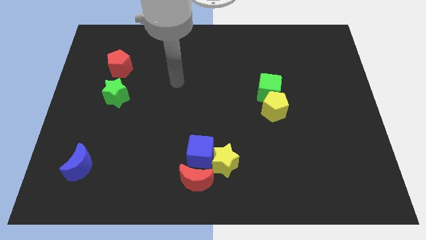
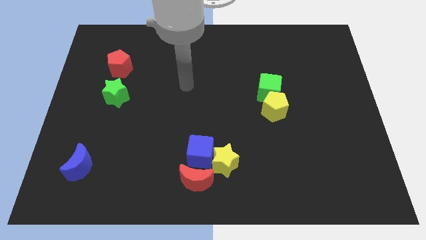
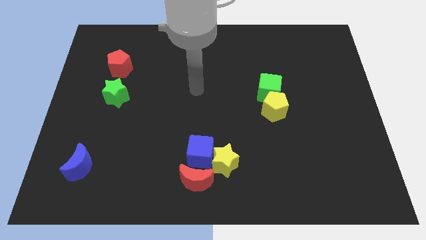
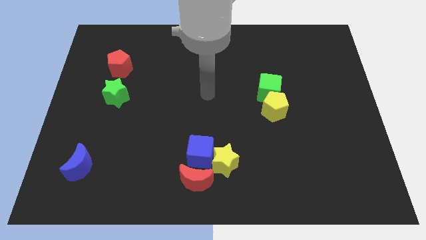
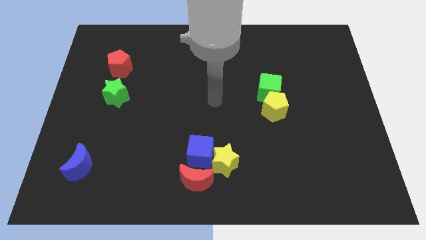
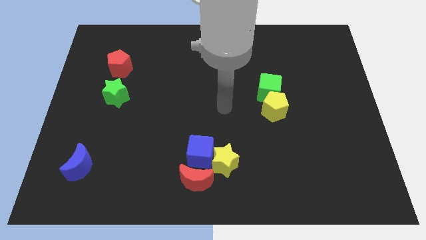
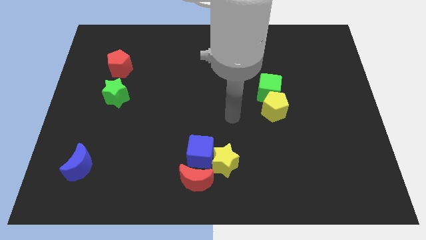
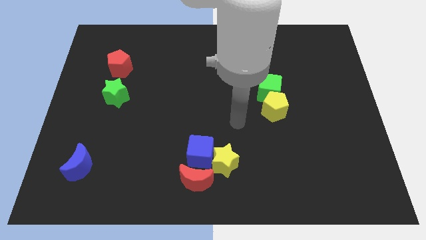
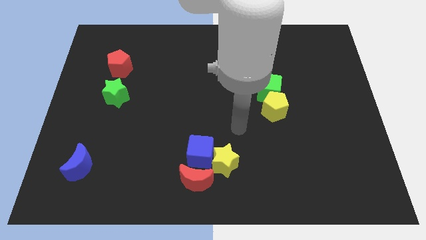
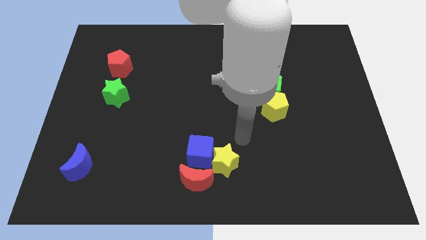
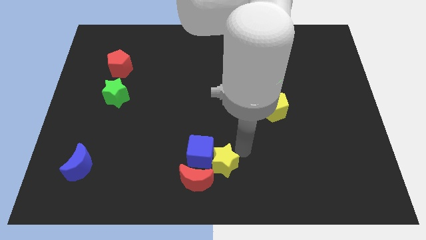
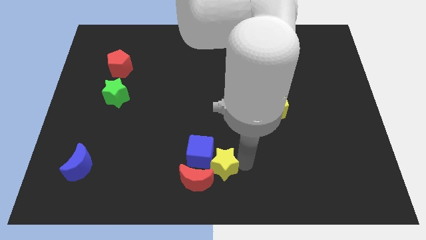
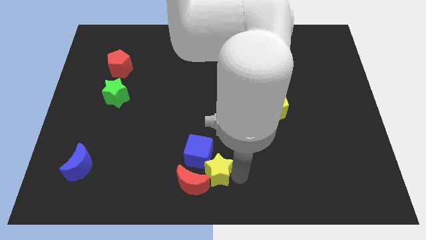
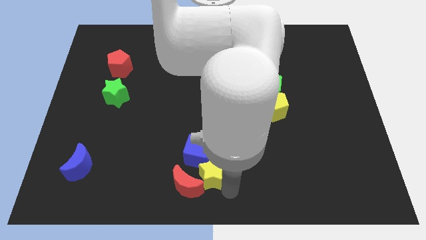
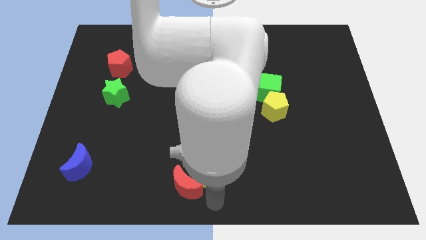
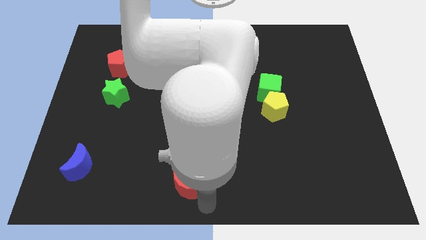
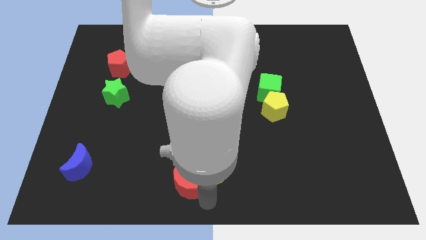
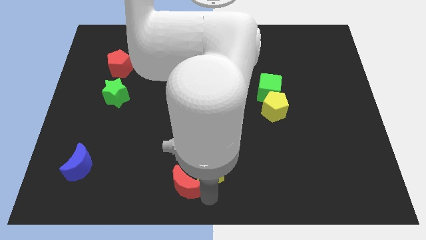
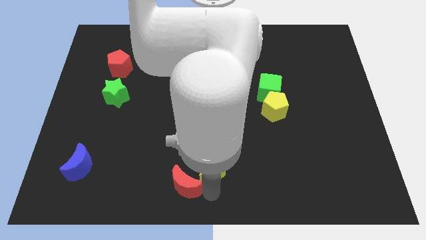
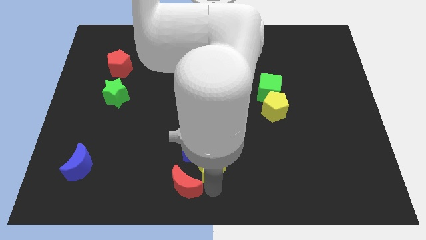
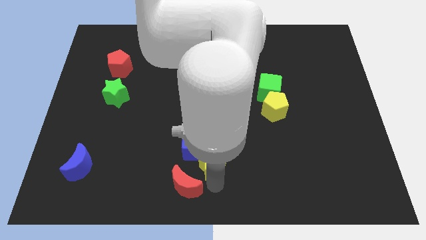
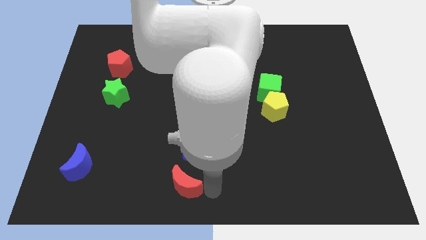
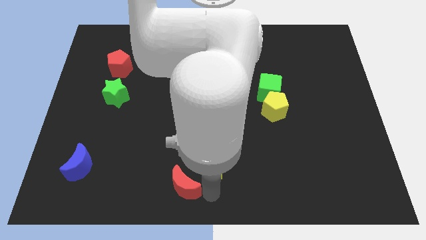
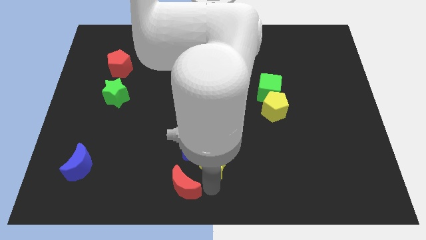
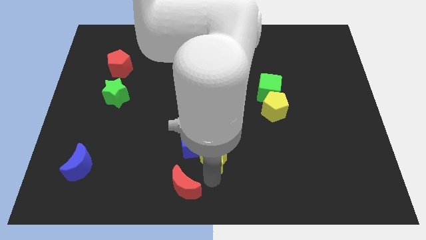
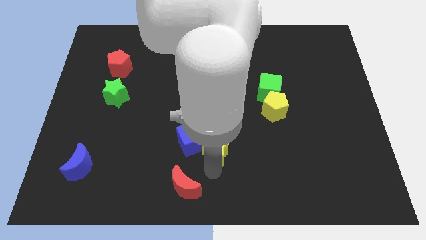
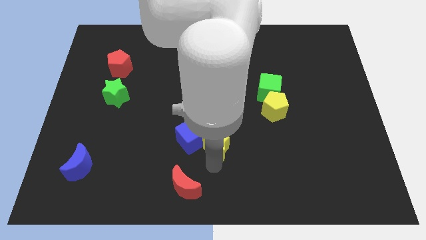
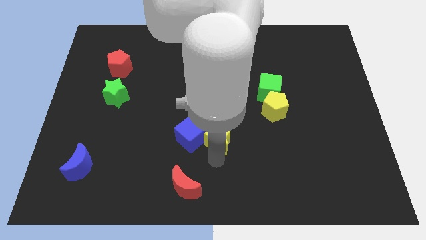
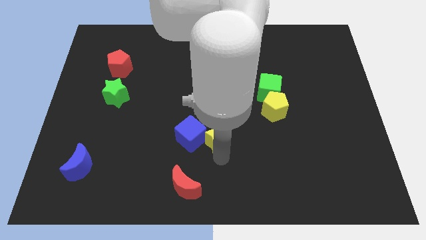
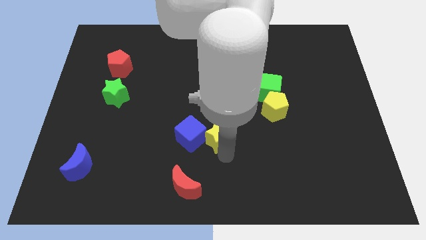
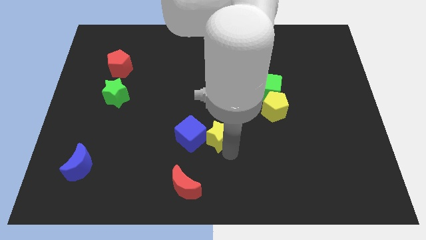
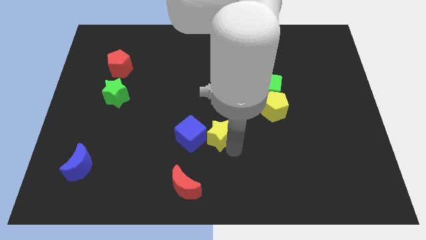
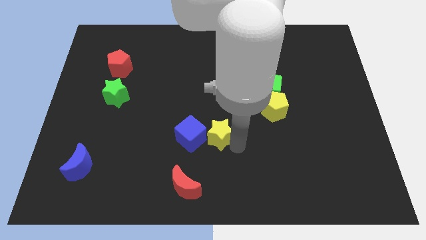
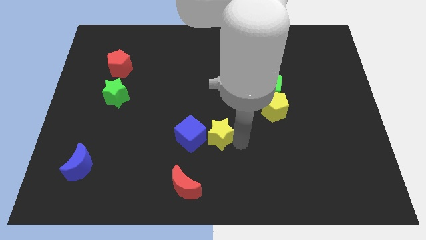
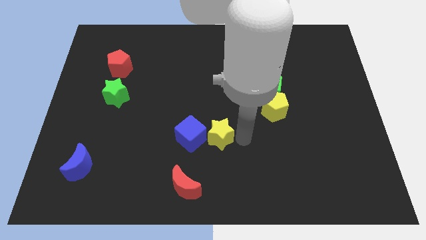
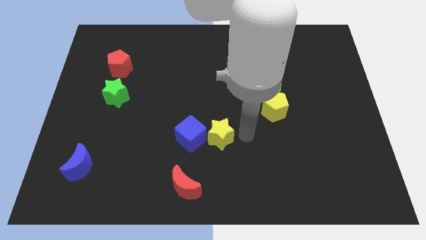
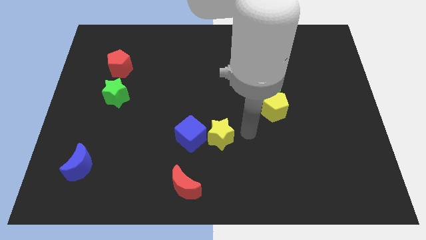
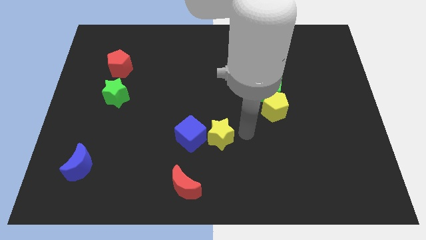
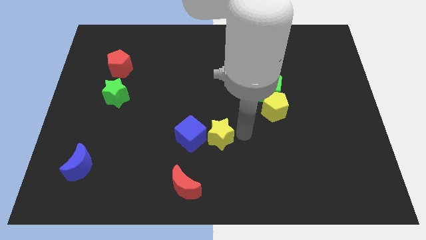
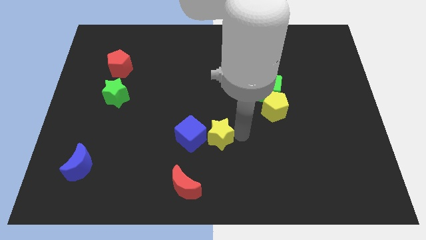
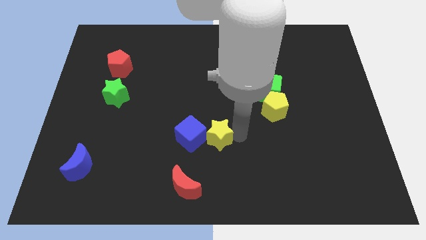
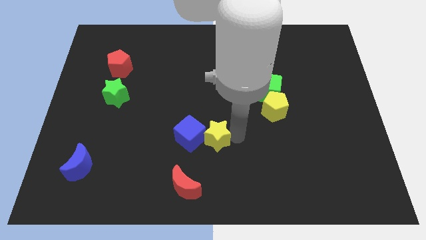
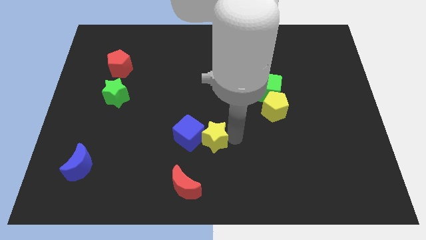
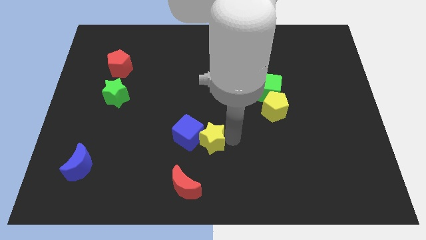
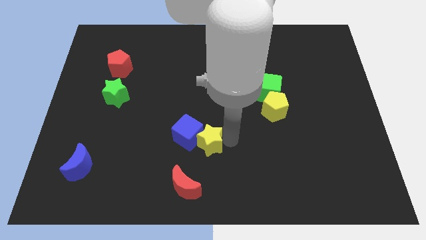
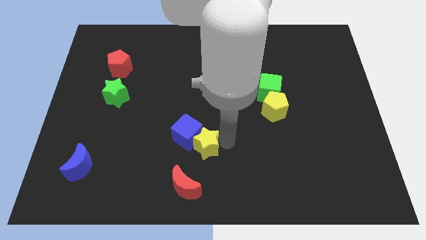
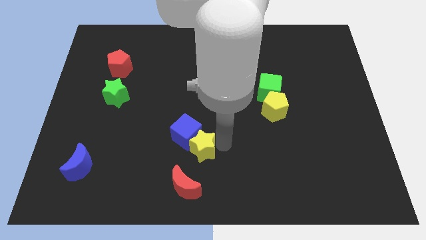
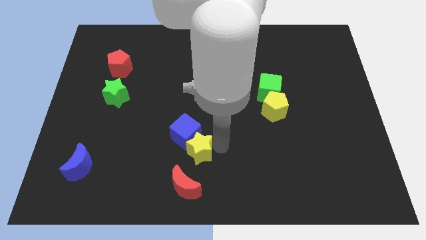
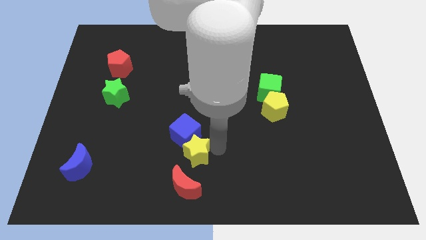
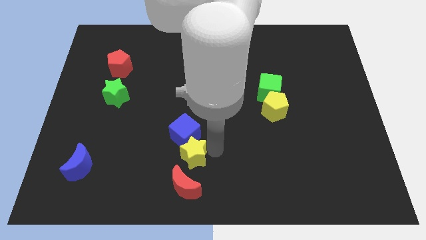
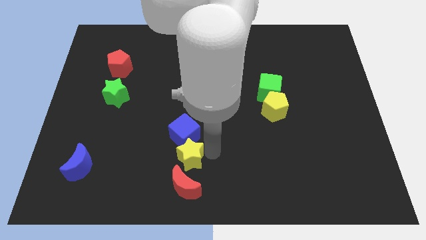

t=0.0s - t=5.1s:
move the yellow star slightly to the left

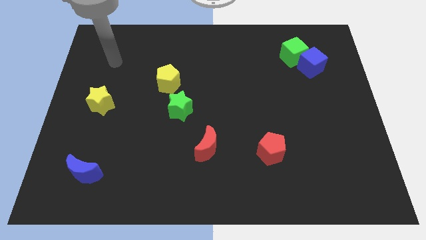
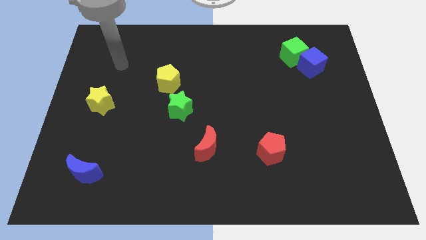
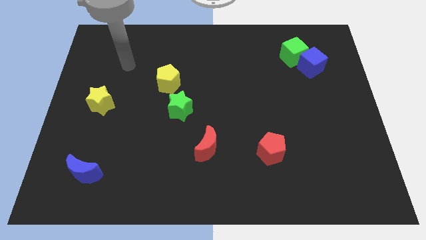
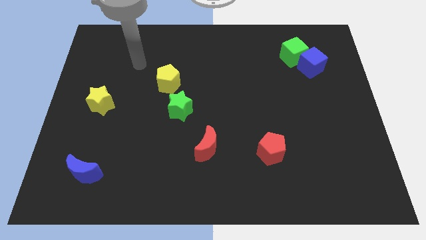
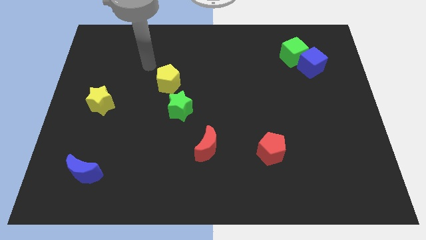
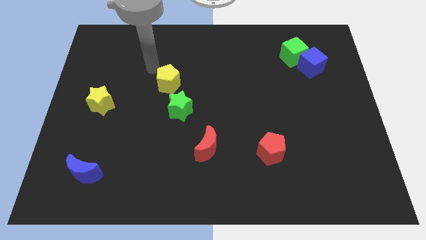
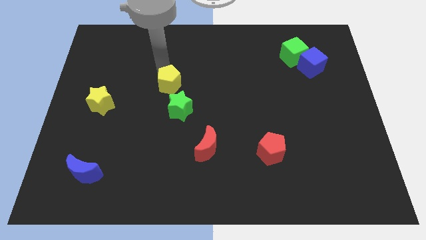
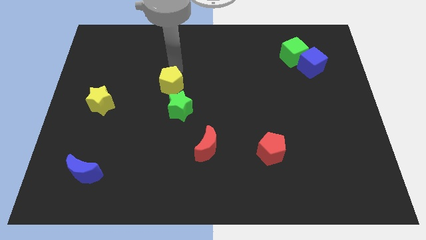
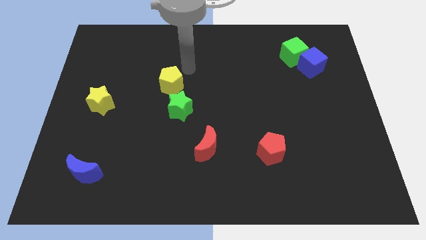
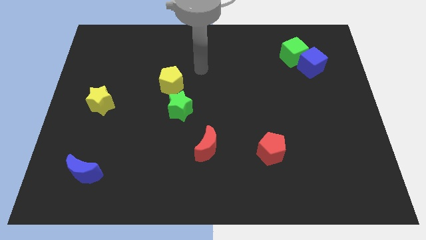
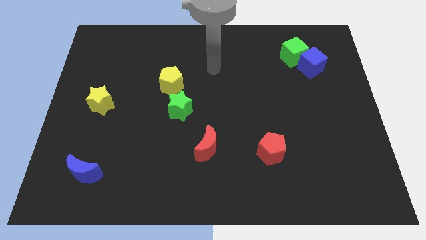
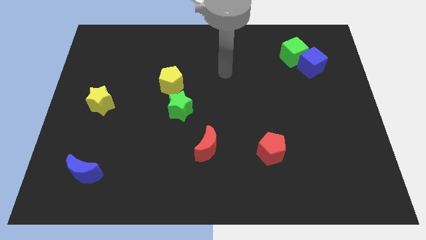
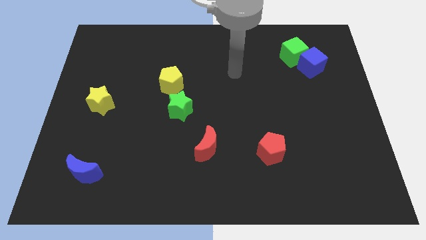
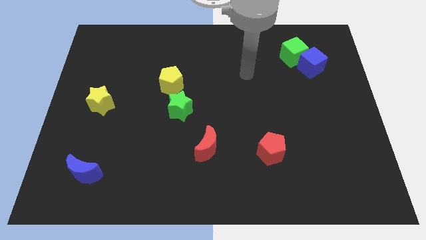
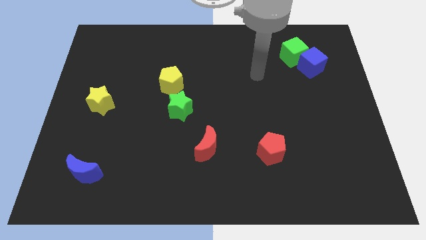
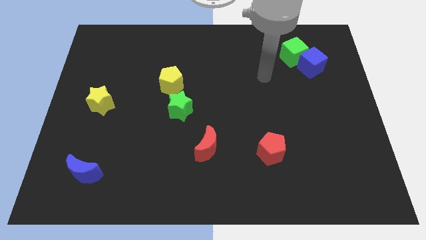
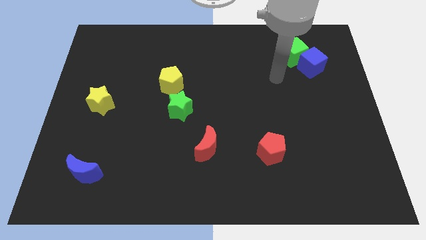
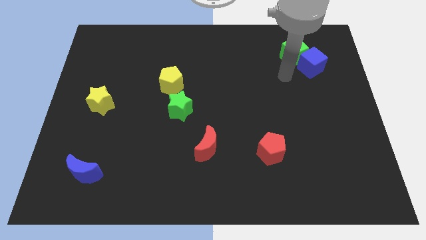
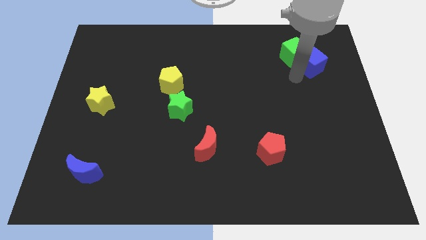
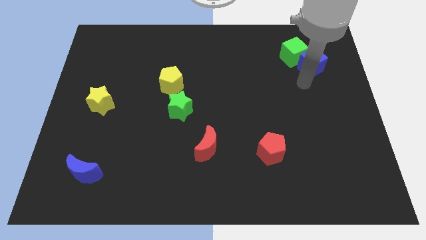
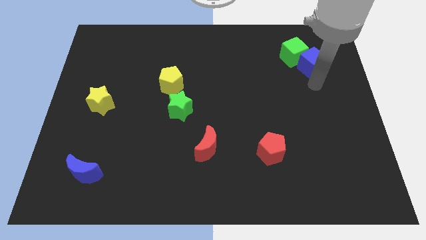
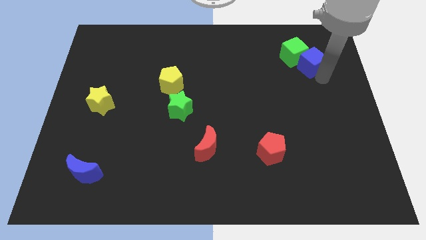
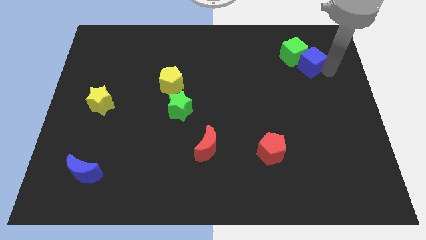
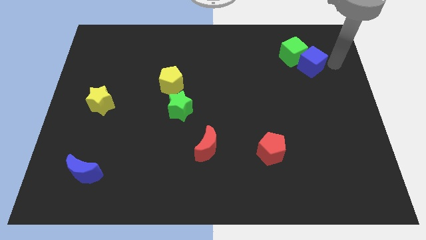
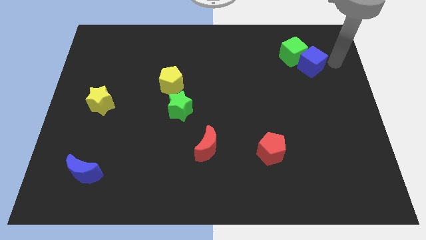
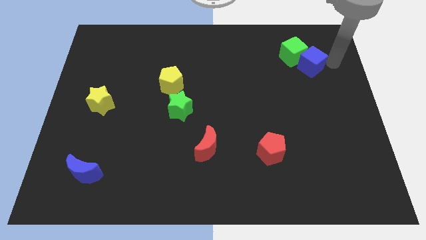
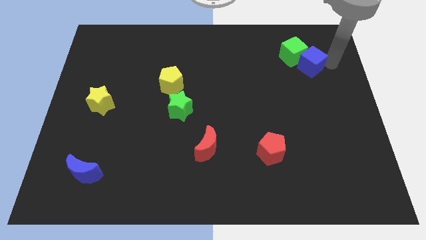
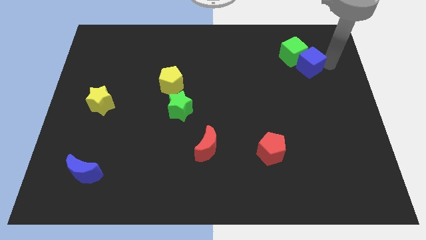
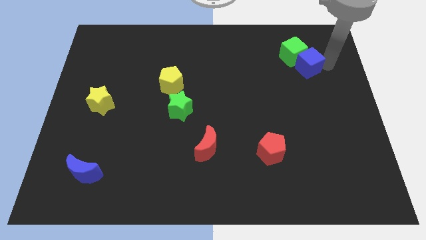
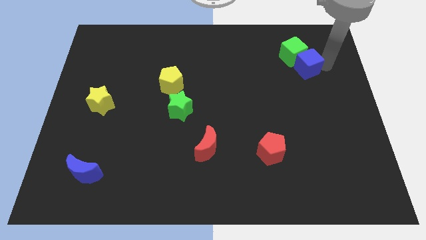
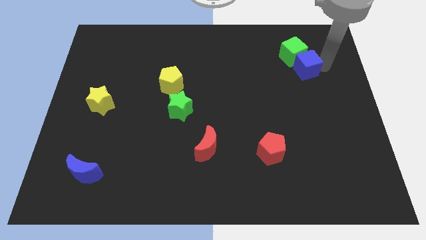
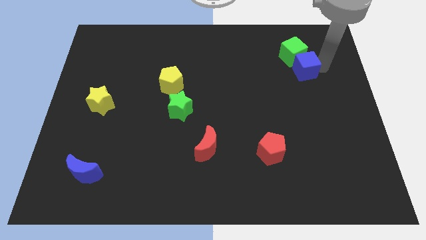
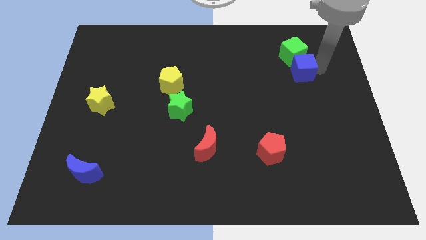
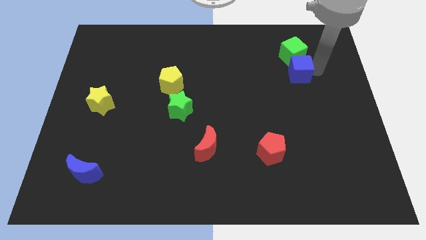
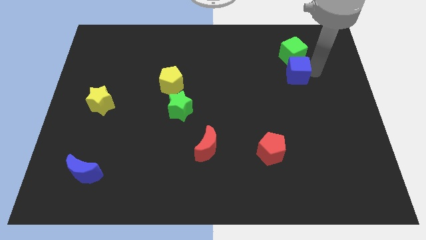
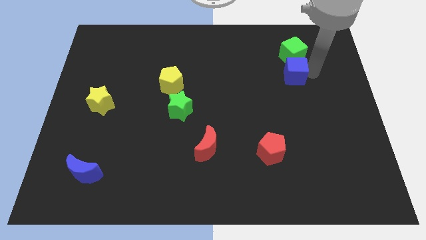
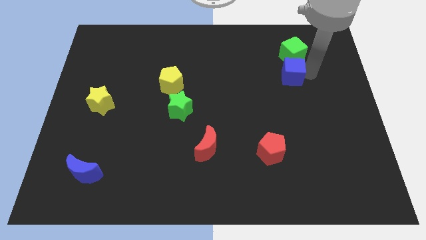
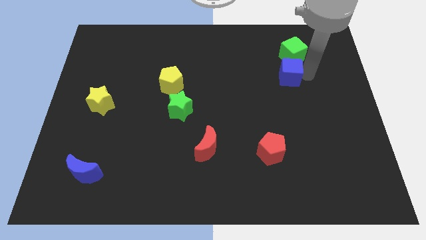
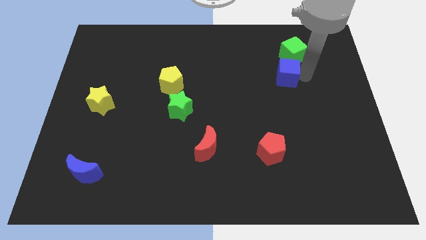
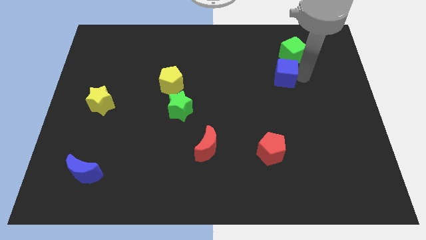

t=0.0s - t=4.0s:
move the blue cube a little to the left
